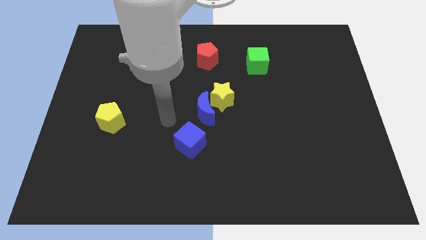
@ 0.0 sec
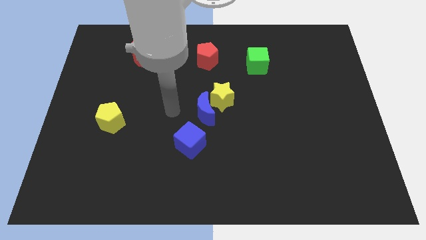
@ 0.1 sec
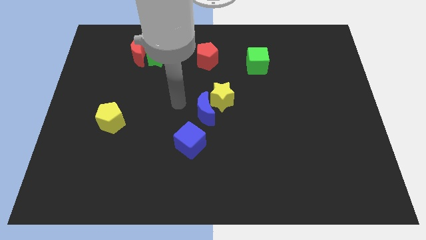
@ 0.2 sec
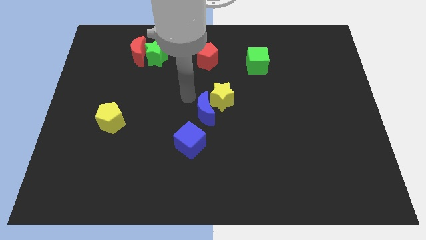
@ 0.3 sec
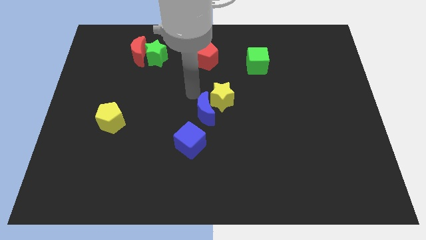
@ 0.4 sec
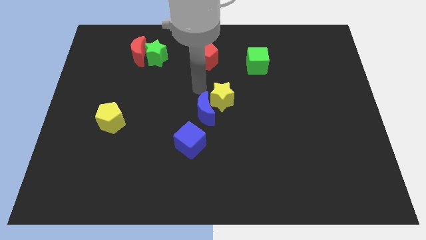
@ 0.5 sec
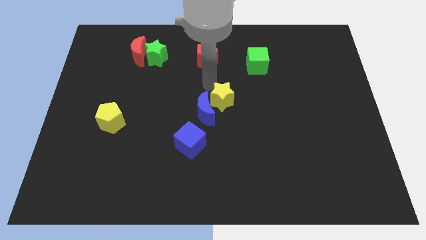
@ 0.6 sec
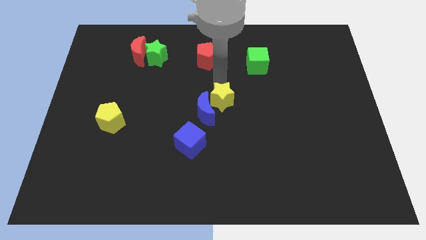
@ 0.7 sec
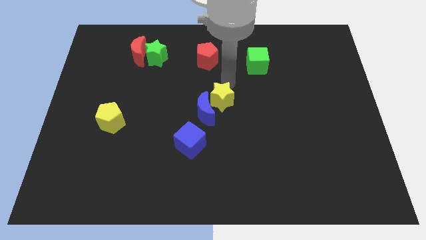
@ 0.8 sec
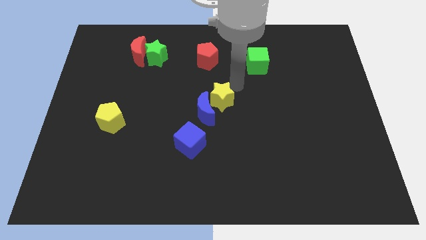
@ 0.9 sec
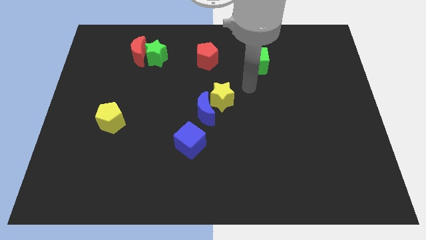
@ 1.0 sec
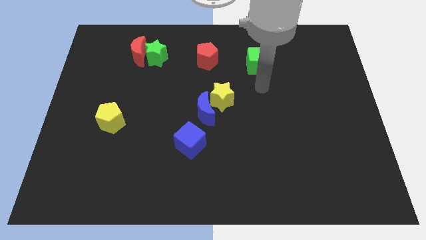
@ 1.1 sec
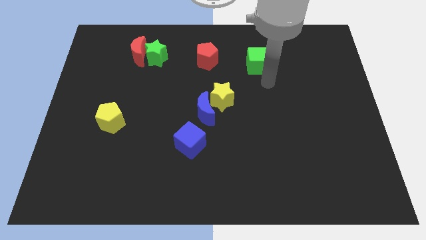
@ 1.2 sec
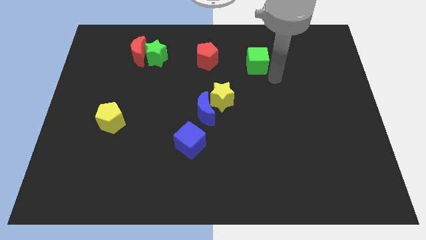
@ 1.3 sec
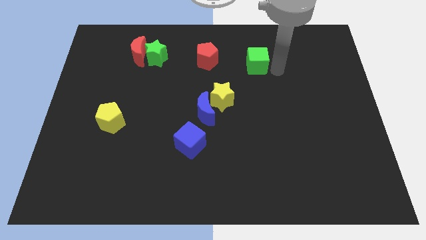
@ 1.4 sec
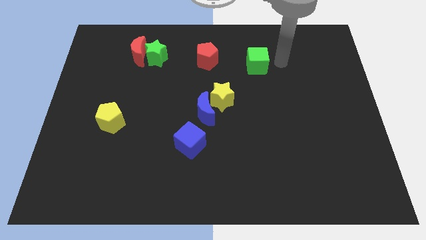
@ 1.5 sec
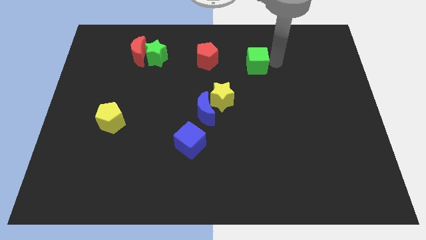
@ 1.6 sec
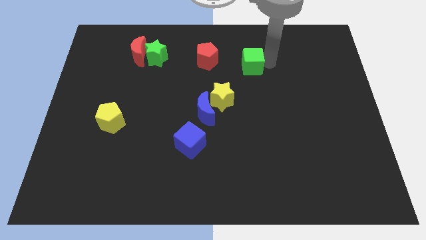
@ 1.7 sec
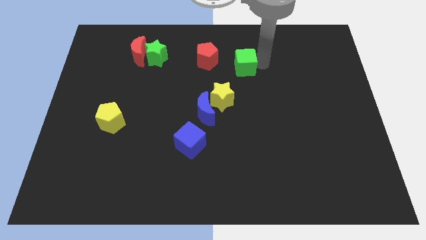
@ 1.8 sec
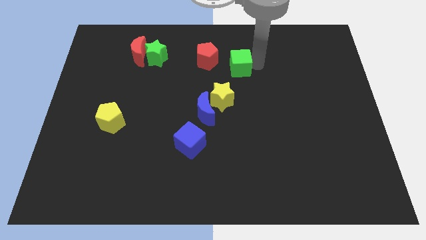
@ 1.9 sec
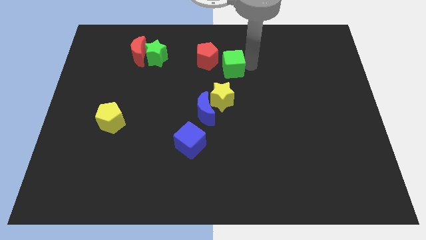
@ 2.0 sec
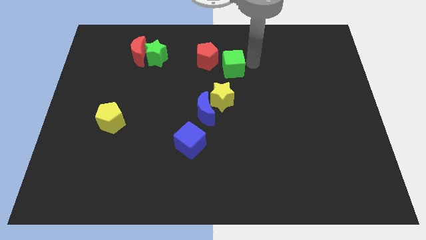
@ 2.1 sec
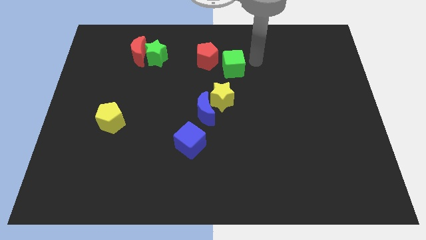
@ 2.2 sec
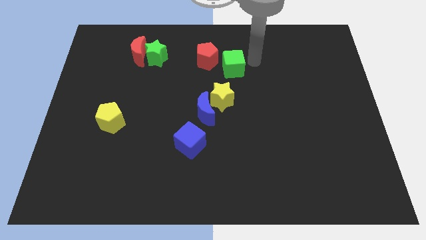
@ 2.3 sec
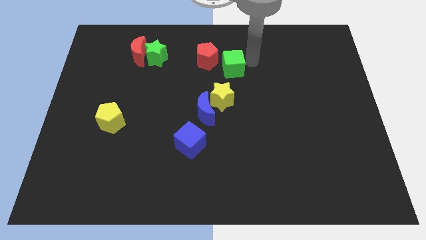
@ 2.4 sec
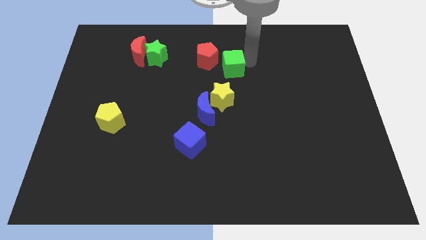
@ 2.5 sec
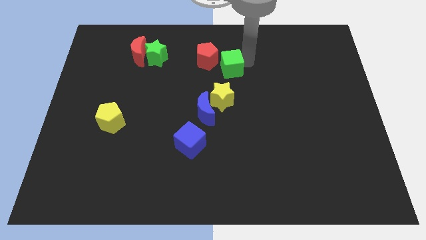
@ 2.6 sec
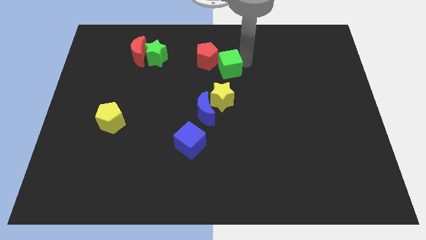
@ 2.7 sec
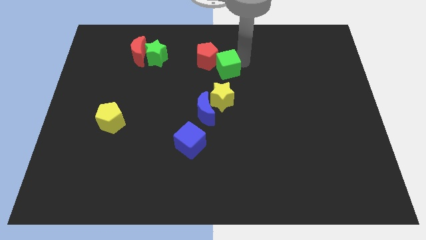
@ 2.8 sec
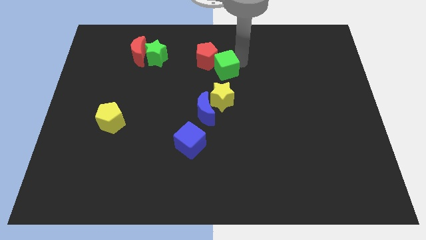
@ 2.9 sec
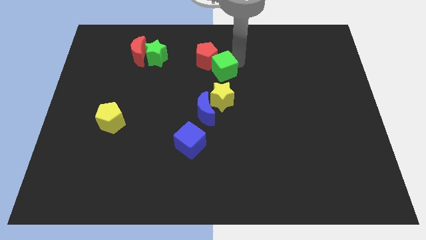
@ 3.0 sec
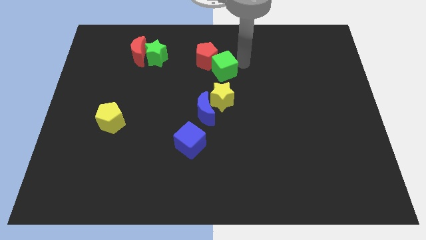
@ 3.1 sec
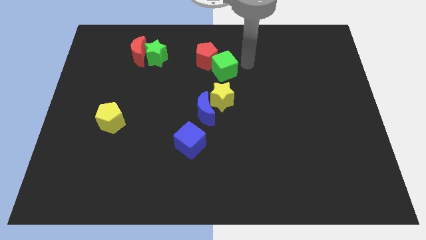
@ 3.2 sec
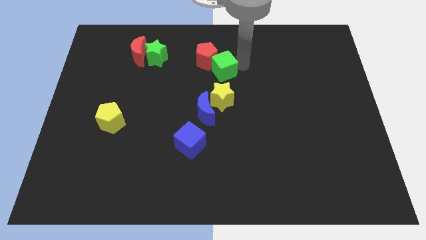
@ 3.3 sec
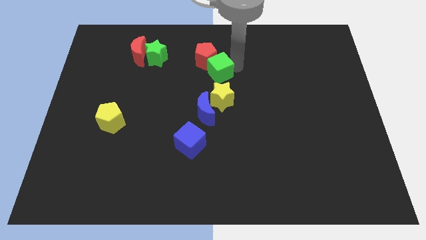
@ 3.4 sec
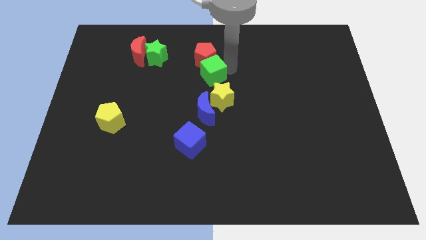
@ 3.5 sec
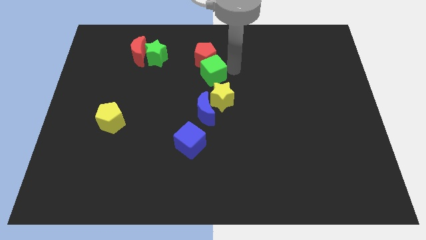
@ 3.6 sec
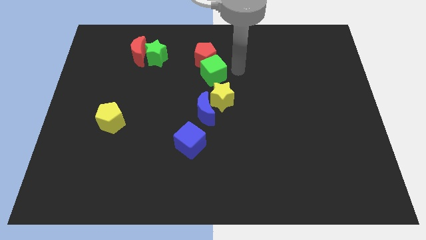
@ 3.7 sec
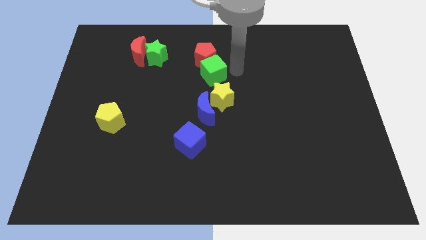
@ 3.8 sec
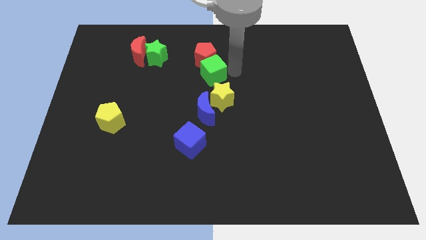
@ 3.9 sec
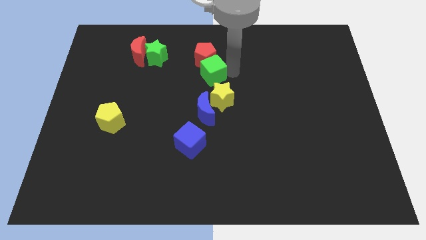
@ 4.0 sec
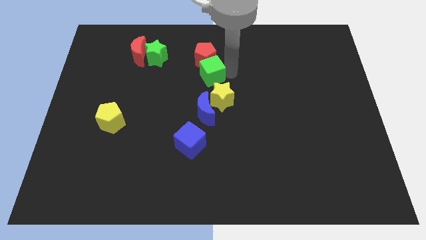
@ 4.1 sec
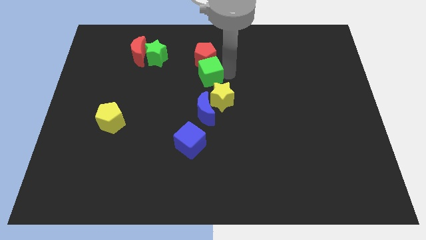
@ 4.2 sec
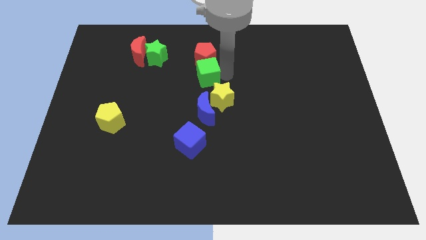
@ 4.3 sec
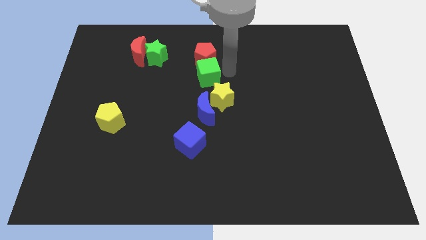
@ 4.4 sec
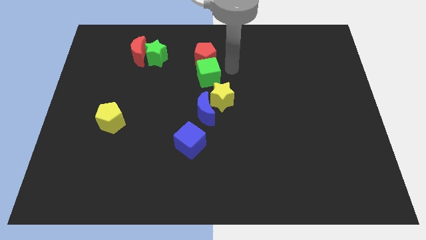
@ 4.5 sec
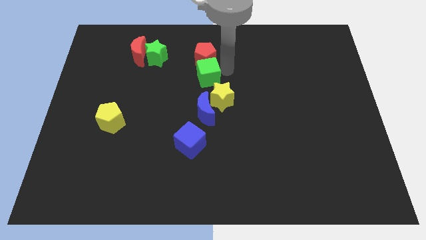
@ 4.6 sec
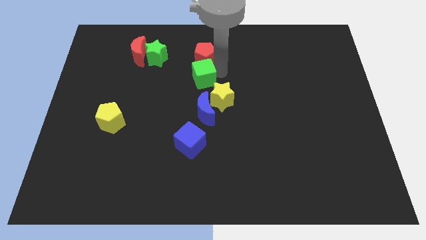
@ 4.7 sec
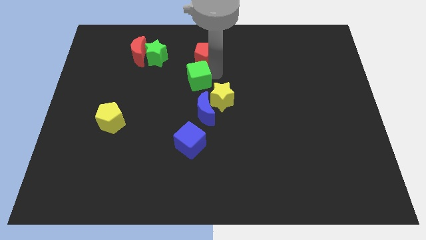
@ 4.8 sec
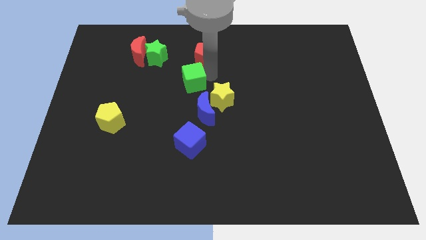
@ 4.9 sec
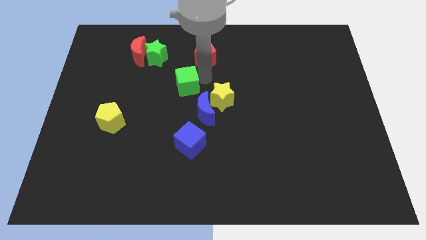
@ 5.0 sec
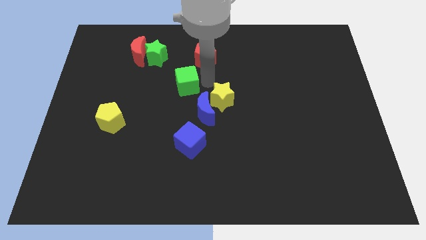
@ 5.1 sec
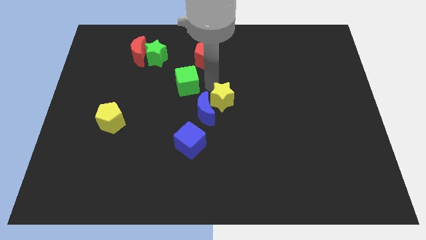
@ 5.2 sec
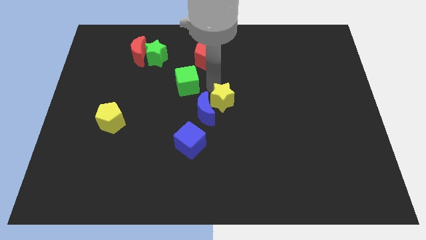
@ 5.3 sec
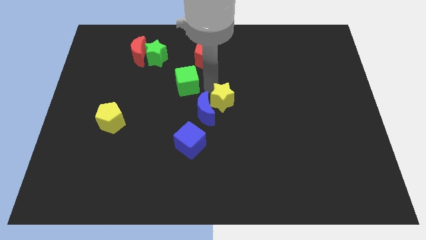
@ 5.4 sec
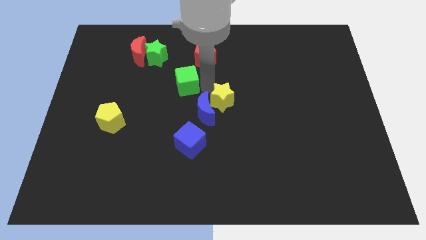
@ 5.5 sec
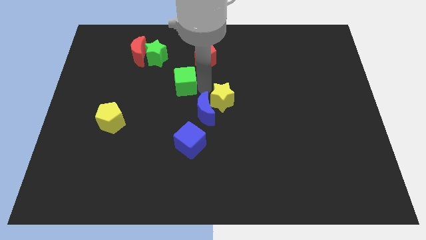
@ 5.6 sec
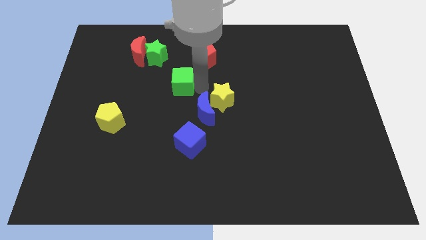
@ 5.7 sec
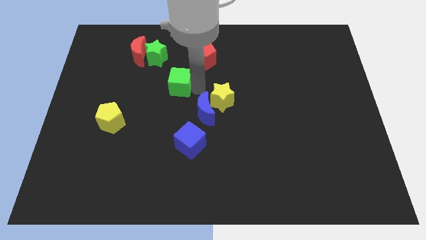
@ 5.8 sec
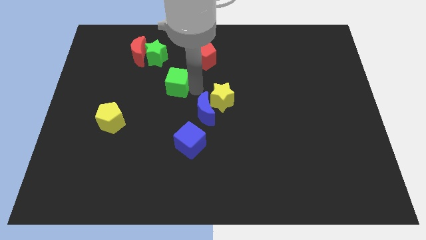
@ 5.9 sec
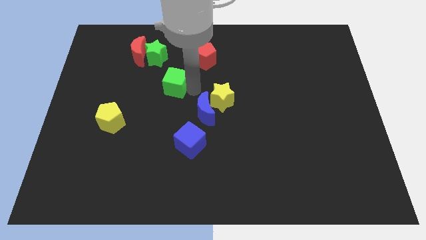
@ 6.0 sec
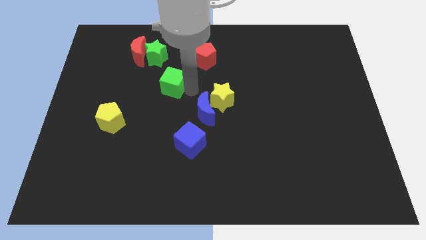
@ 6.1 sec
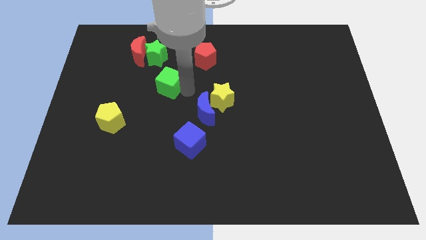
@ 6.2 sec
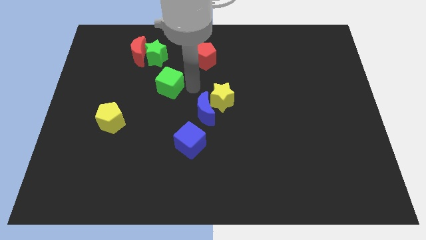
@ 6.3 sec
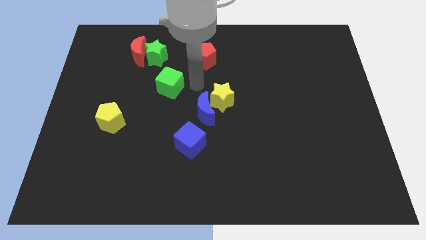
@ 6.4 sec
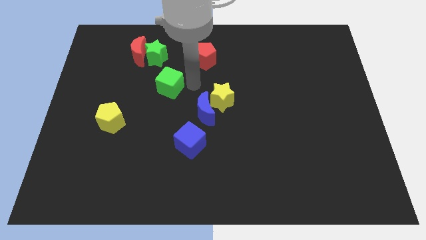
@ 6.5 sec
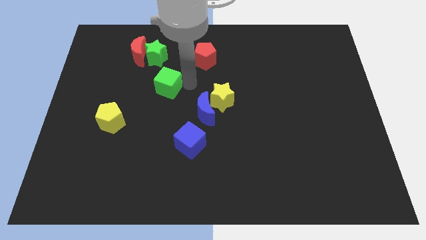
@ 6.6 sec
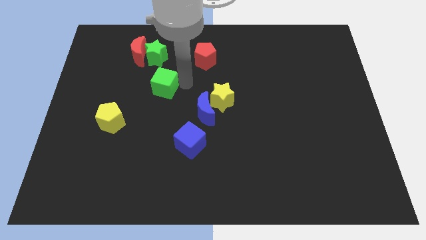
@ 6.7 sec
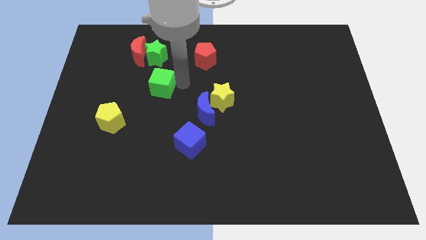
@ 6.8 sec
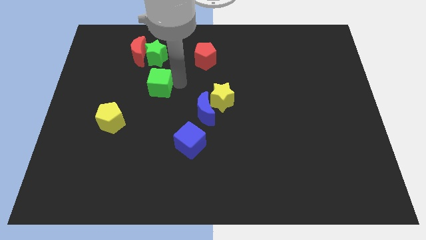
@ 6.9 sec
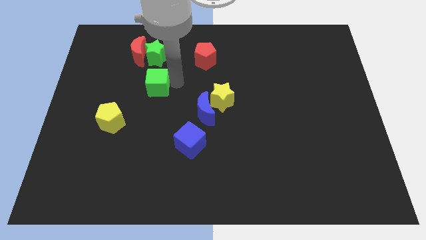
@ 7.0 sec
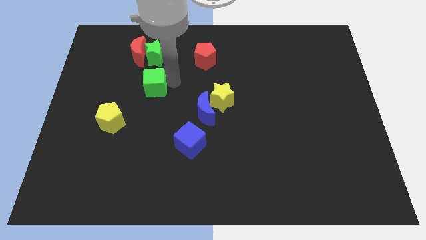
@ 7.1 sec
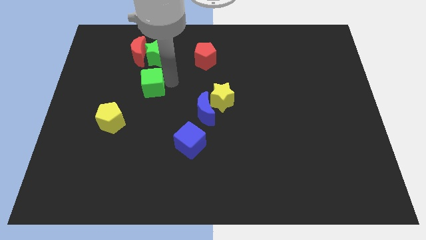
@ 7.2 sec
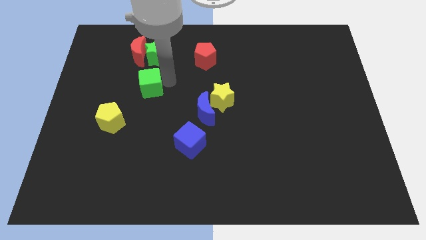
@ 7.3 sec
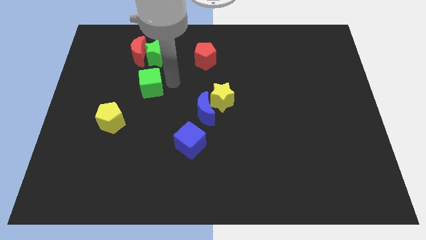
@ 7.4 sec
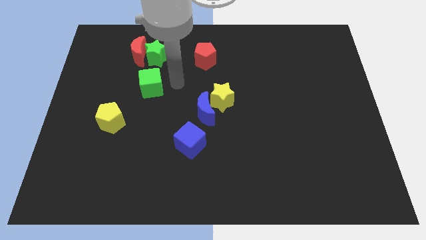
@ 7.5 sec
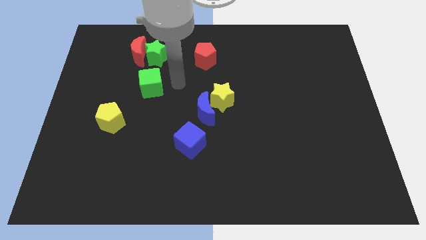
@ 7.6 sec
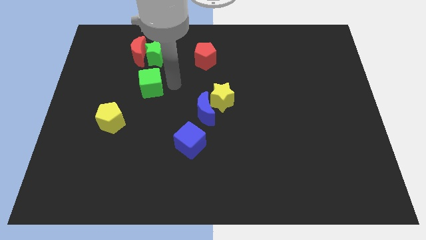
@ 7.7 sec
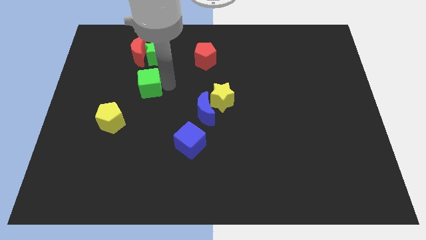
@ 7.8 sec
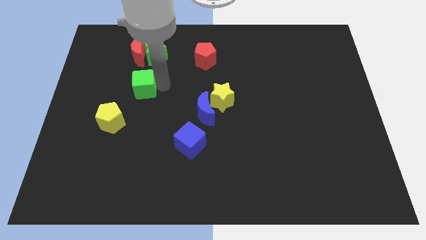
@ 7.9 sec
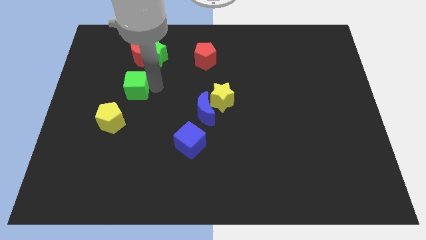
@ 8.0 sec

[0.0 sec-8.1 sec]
move the green cube above the yellow pentagon
